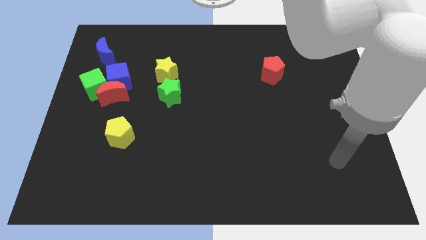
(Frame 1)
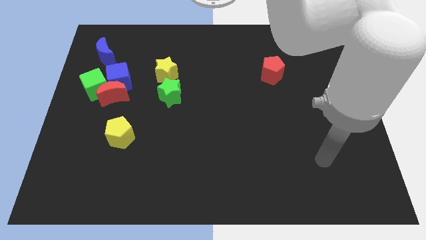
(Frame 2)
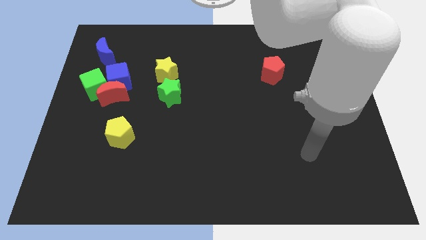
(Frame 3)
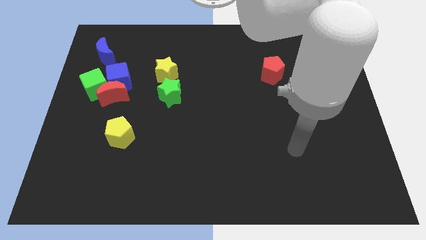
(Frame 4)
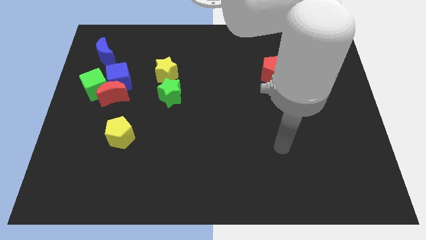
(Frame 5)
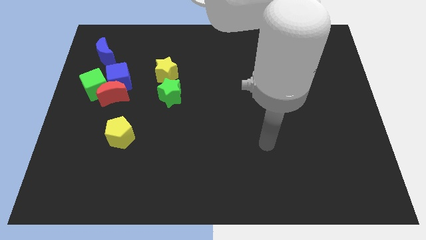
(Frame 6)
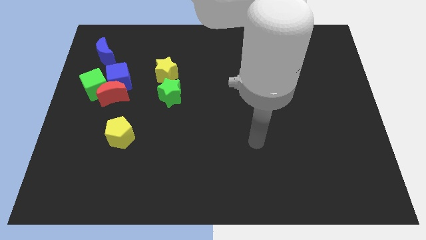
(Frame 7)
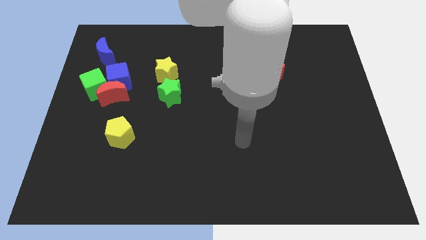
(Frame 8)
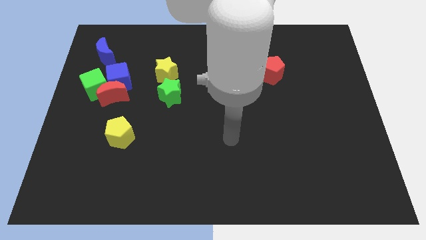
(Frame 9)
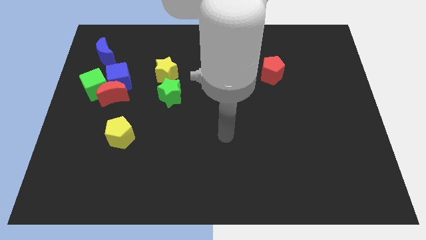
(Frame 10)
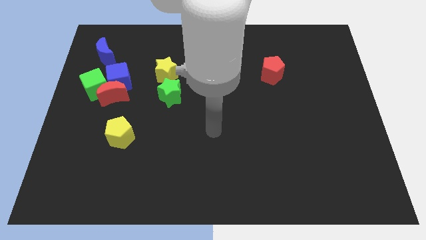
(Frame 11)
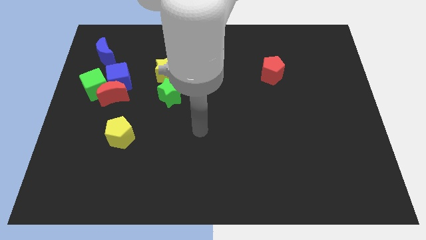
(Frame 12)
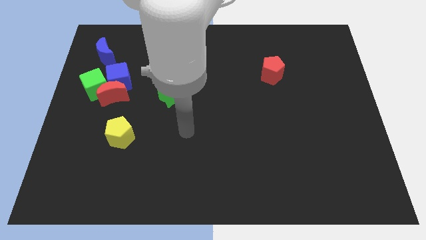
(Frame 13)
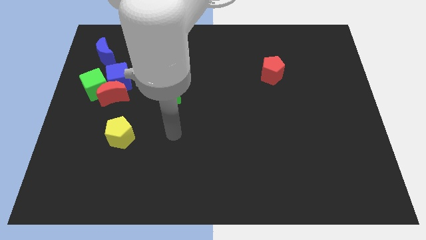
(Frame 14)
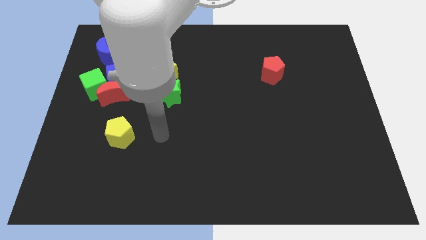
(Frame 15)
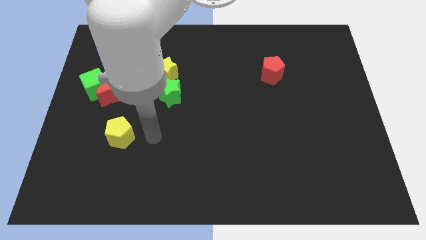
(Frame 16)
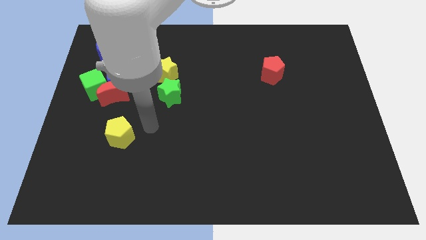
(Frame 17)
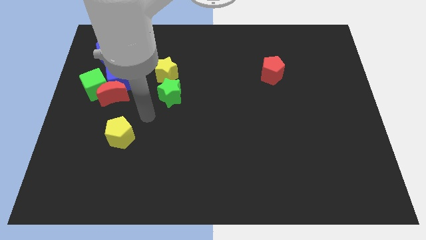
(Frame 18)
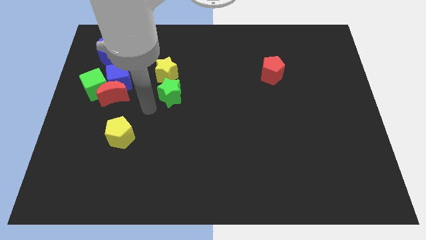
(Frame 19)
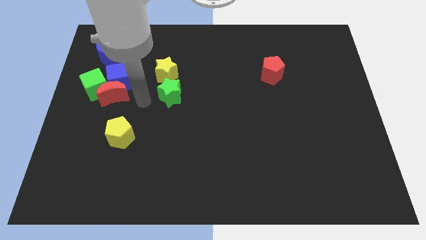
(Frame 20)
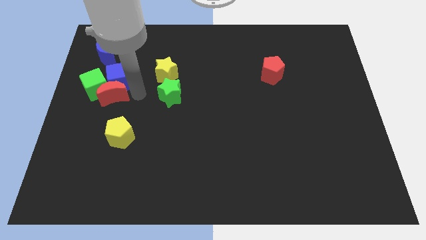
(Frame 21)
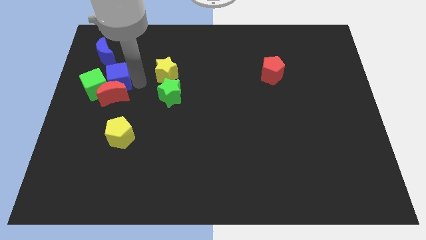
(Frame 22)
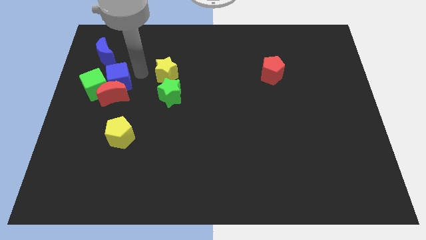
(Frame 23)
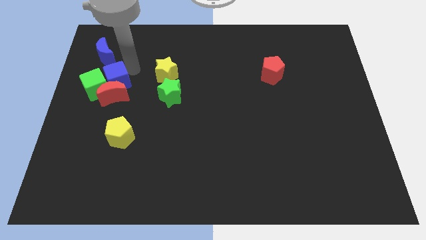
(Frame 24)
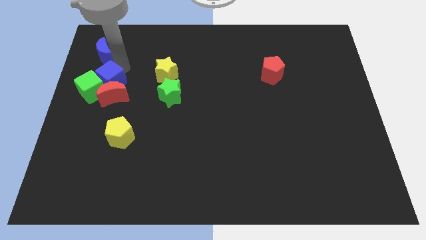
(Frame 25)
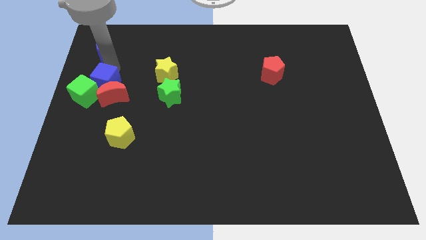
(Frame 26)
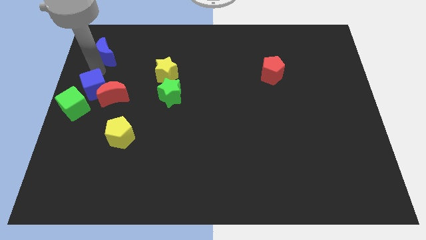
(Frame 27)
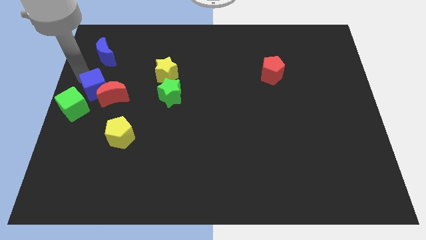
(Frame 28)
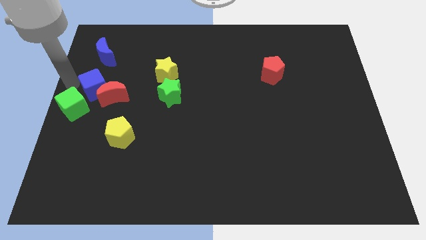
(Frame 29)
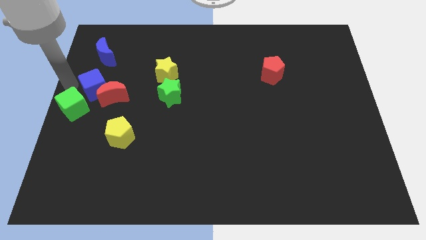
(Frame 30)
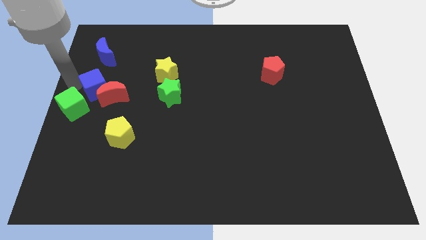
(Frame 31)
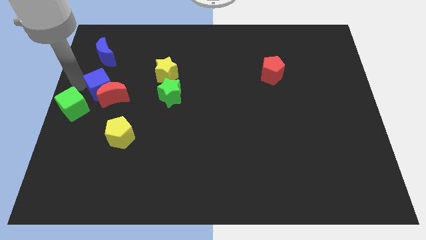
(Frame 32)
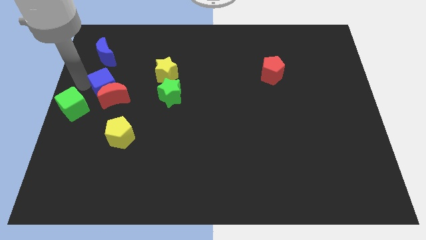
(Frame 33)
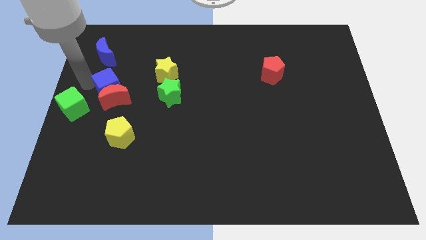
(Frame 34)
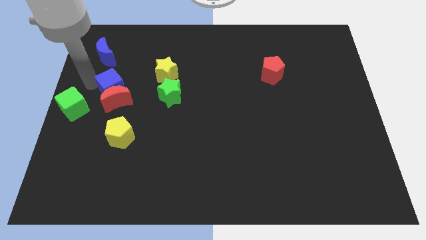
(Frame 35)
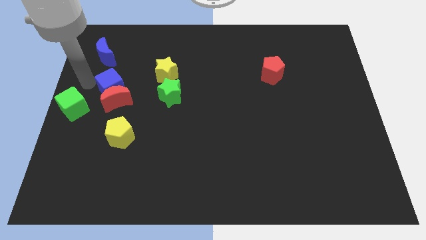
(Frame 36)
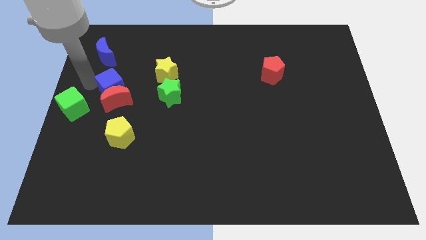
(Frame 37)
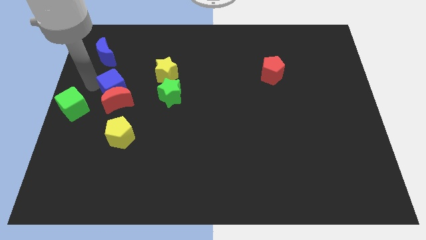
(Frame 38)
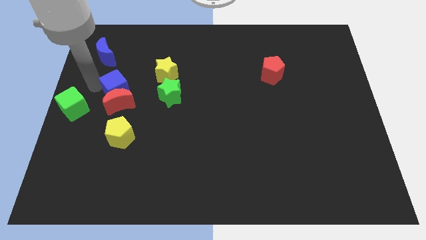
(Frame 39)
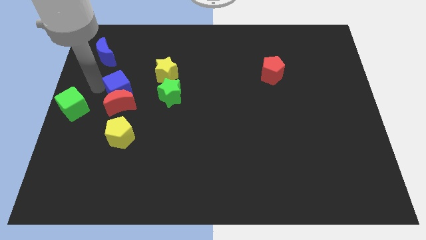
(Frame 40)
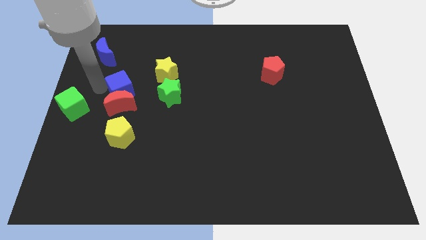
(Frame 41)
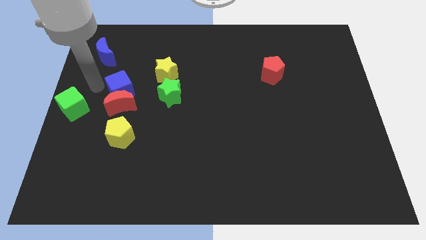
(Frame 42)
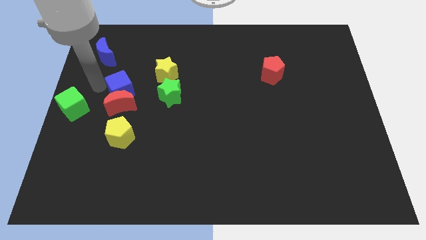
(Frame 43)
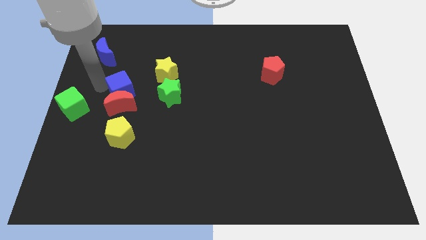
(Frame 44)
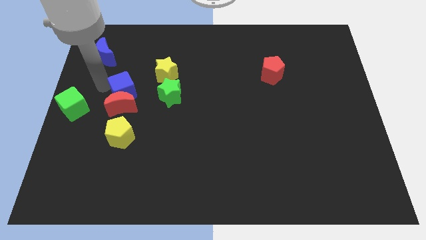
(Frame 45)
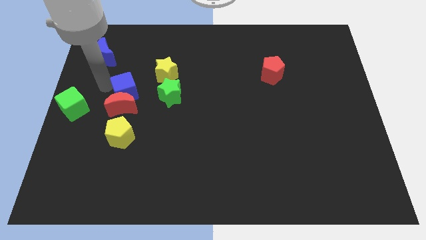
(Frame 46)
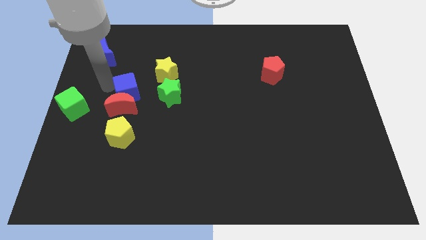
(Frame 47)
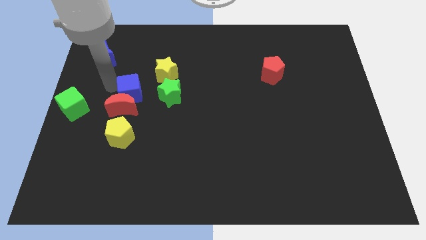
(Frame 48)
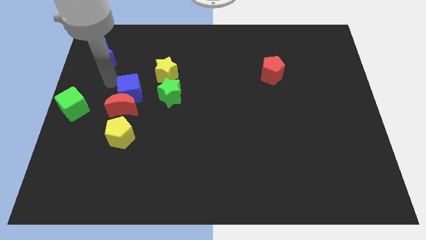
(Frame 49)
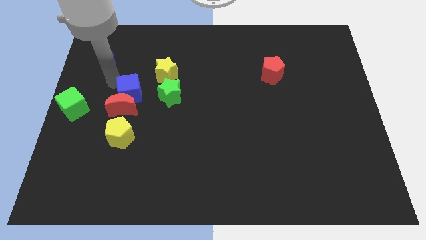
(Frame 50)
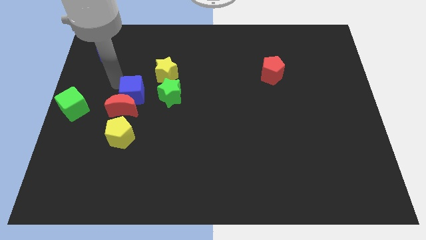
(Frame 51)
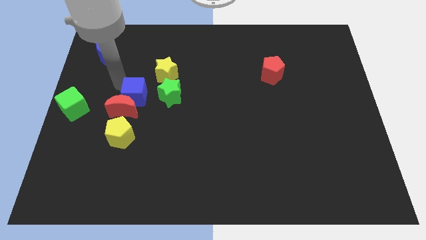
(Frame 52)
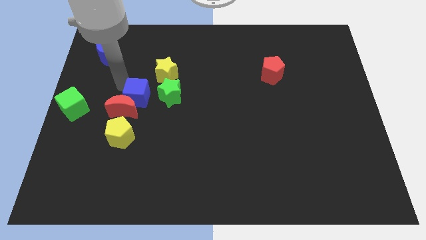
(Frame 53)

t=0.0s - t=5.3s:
slide the blue cube slightly downwards and to the right

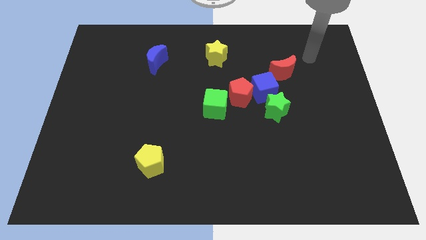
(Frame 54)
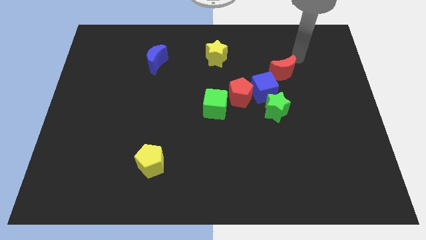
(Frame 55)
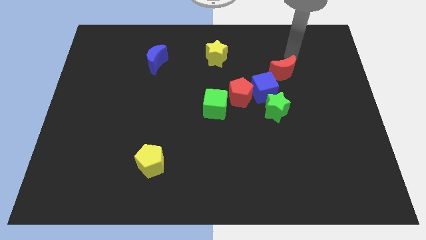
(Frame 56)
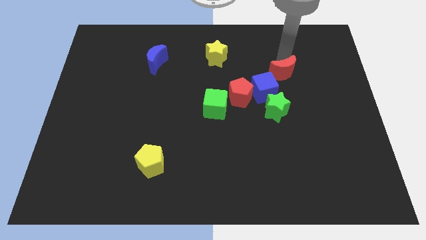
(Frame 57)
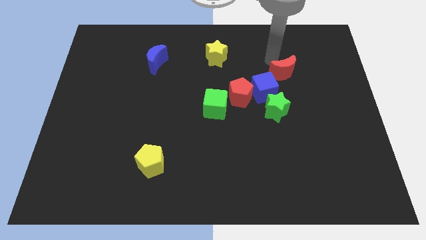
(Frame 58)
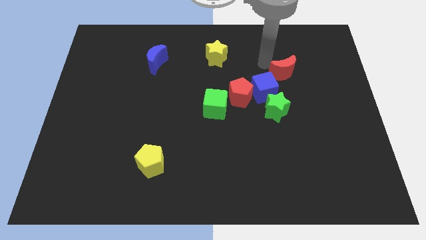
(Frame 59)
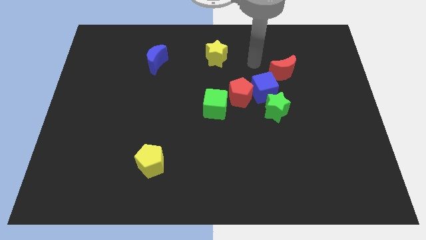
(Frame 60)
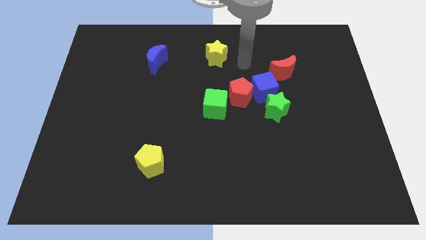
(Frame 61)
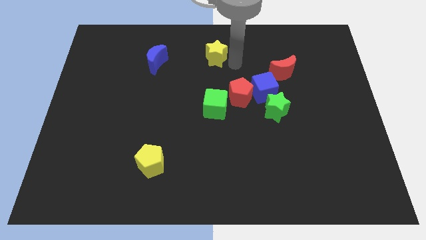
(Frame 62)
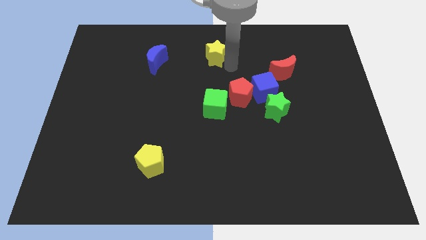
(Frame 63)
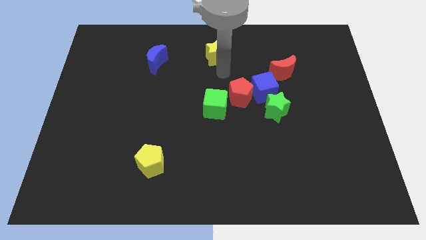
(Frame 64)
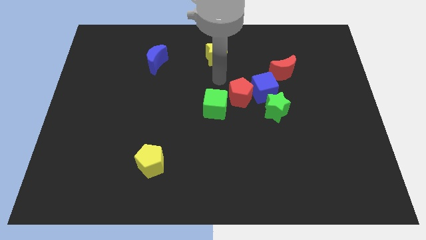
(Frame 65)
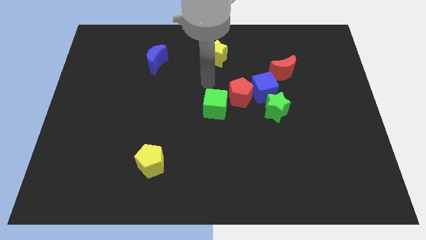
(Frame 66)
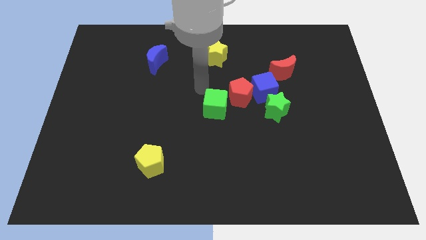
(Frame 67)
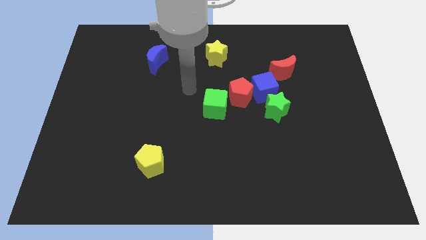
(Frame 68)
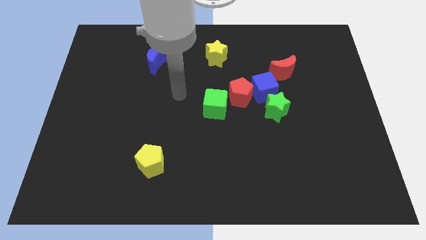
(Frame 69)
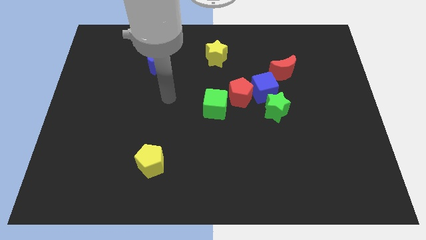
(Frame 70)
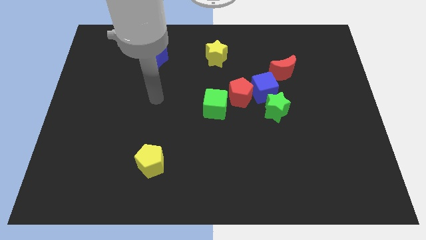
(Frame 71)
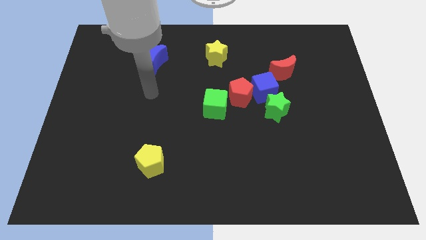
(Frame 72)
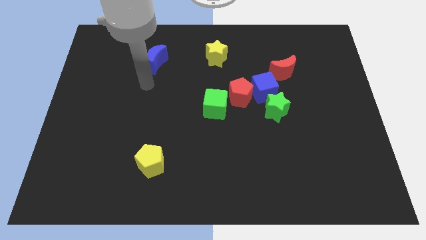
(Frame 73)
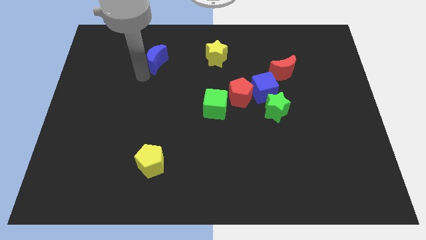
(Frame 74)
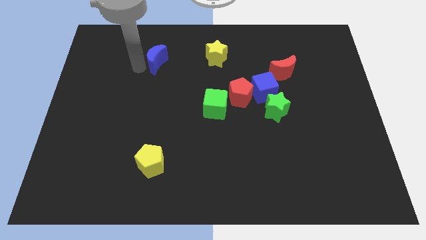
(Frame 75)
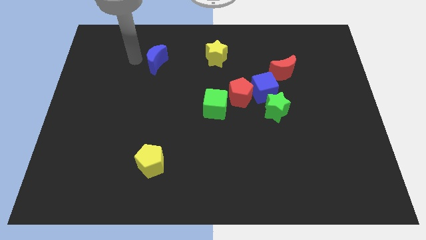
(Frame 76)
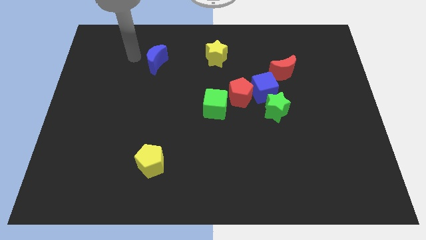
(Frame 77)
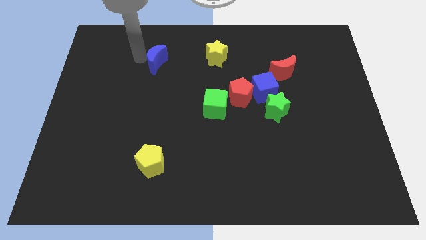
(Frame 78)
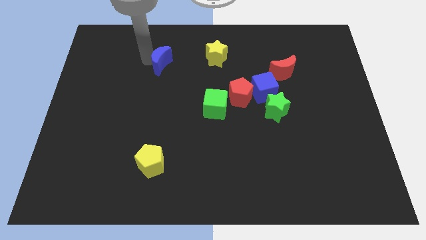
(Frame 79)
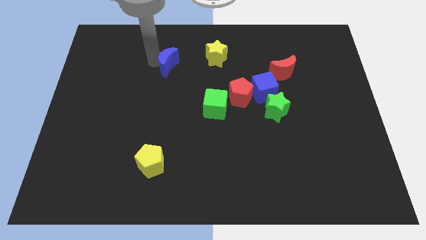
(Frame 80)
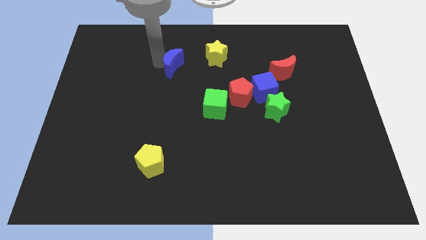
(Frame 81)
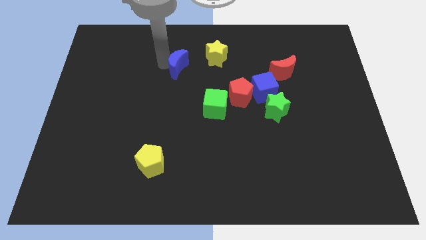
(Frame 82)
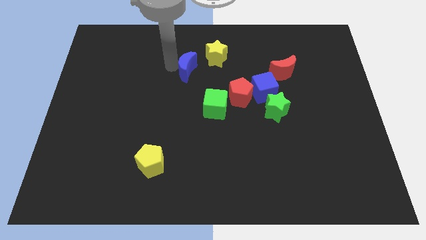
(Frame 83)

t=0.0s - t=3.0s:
move the blue moon a bit right
